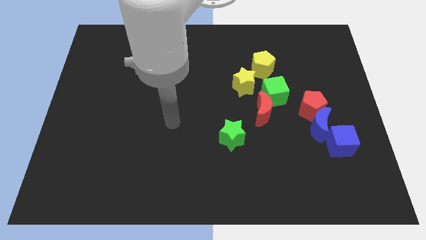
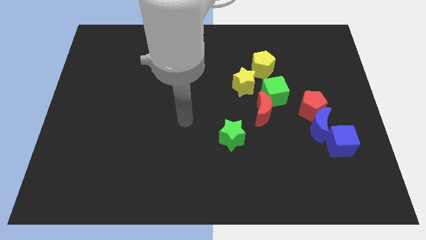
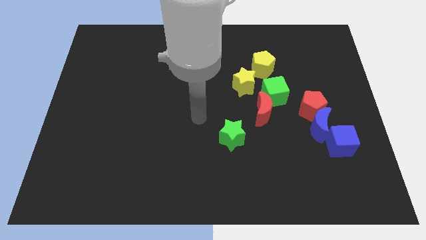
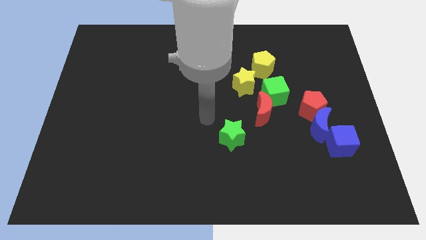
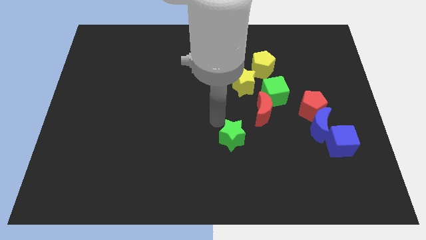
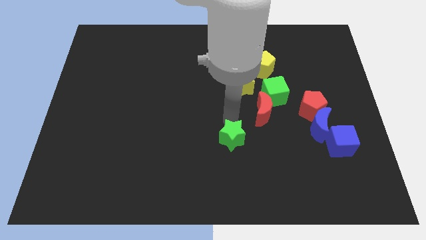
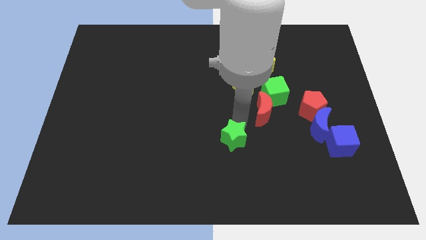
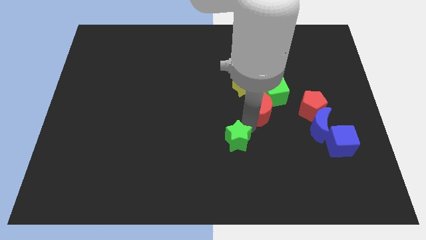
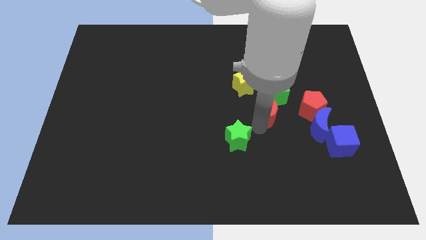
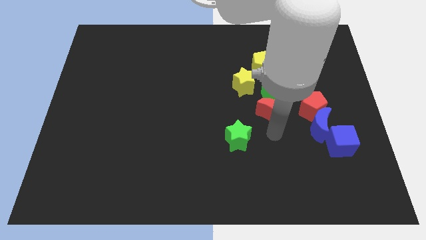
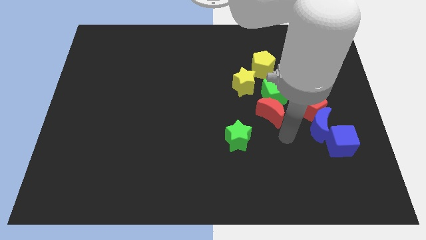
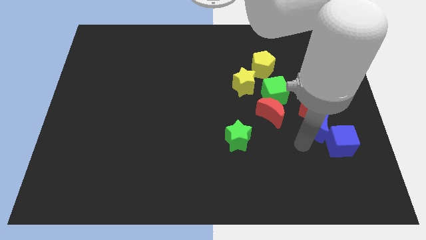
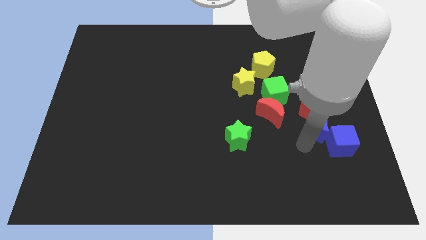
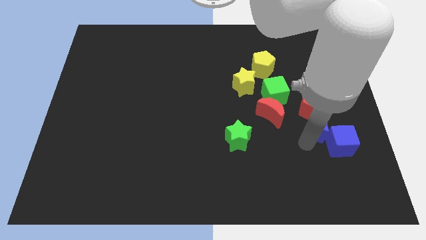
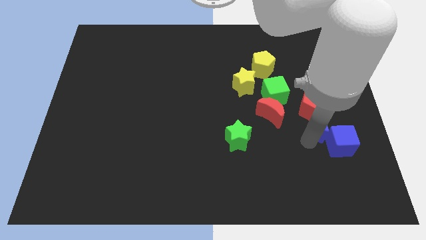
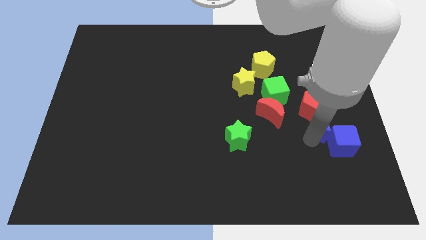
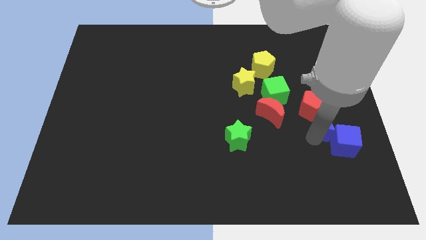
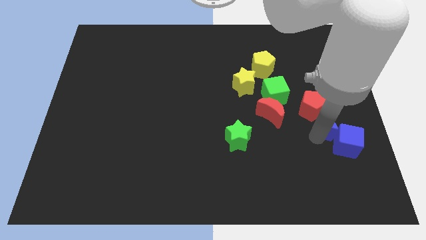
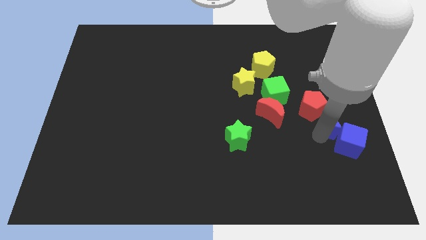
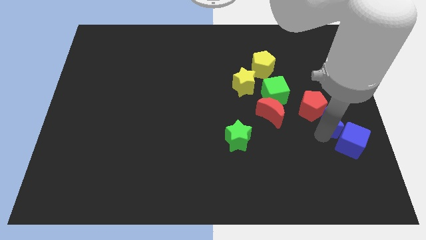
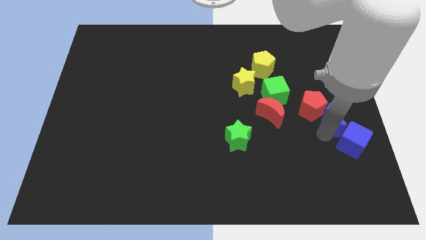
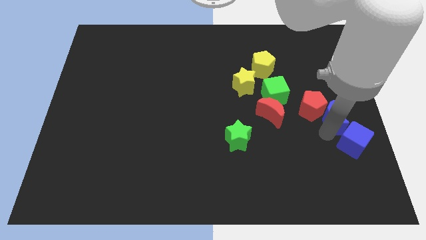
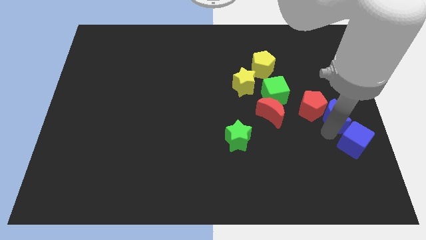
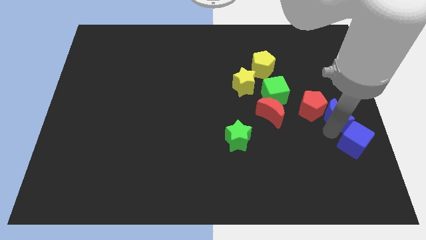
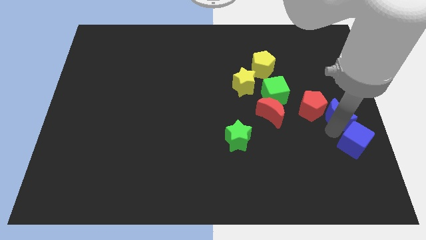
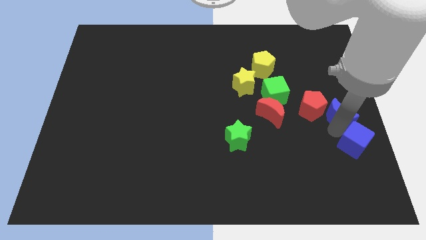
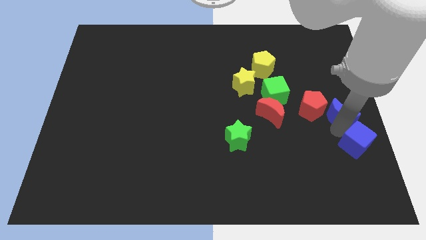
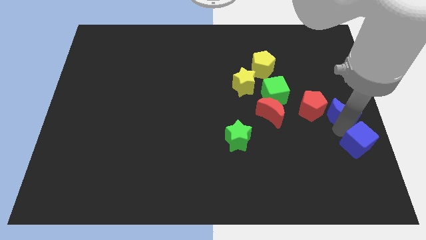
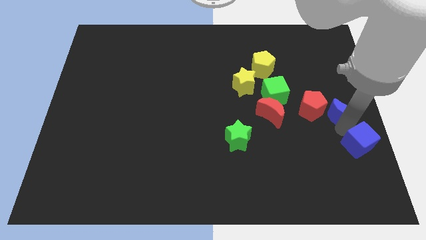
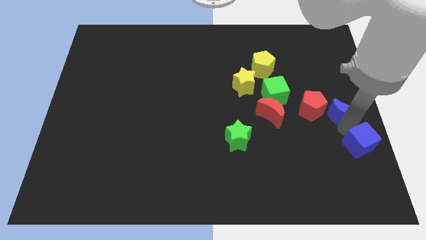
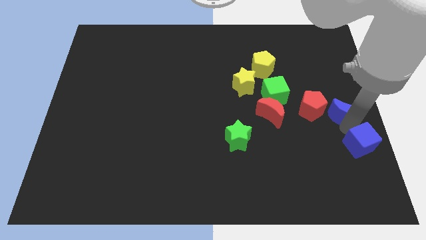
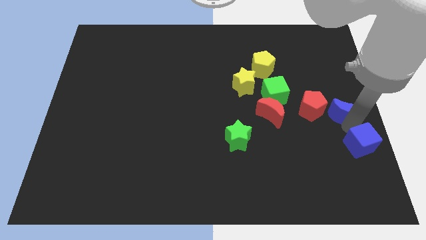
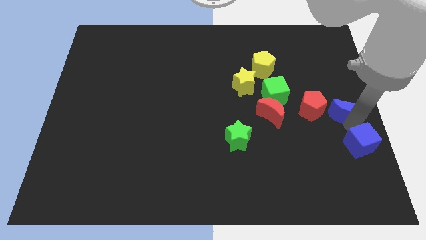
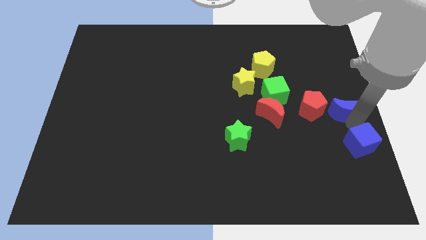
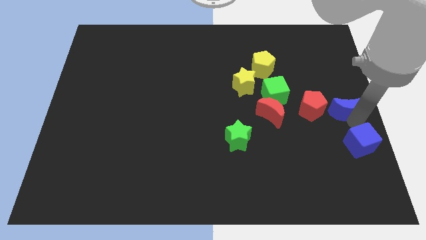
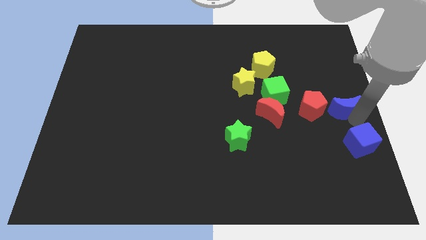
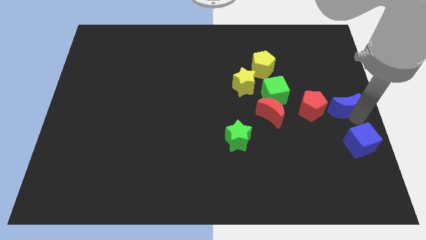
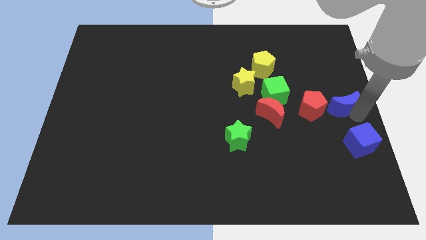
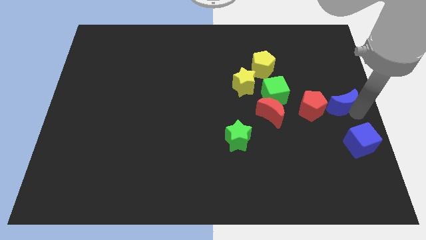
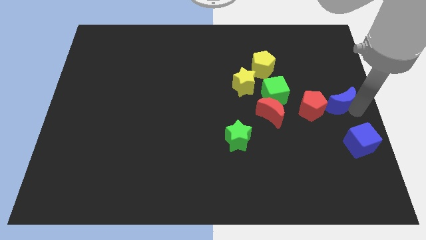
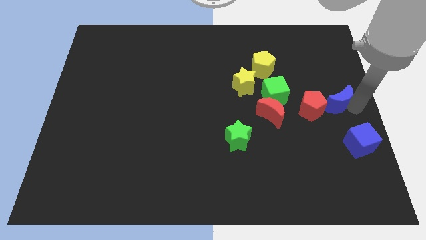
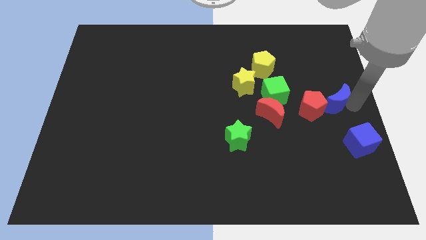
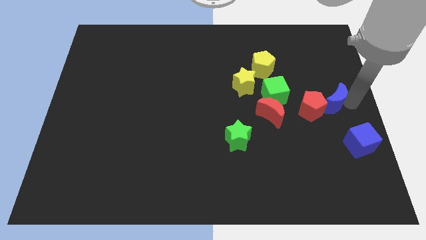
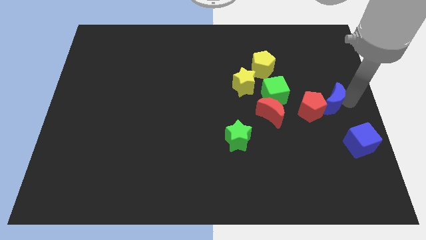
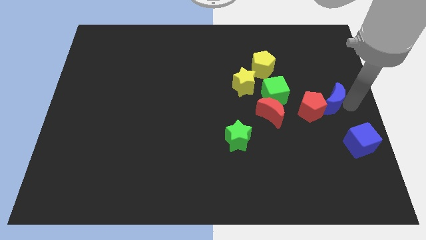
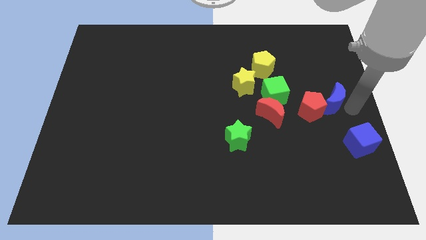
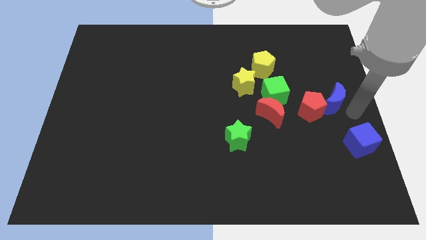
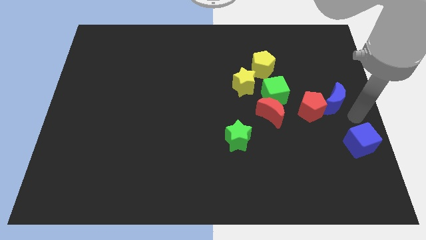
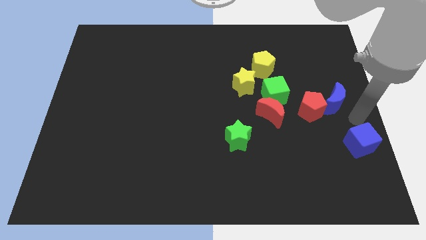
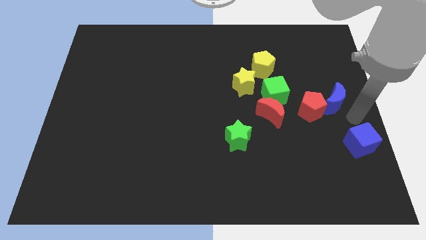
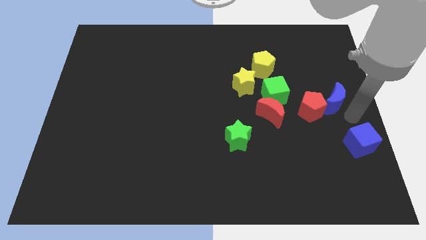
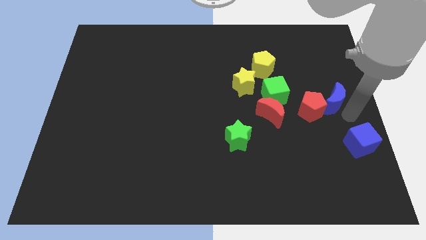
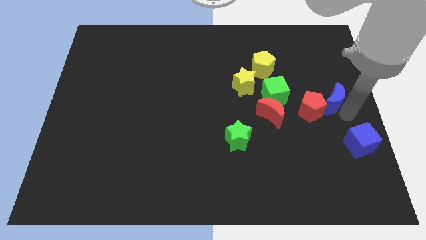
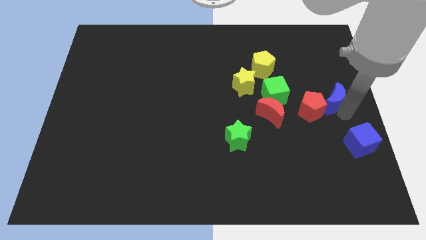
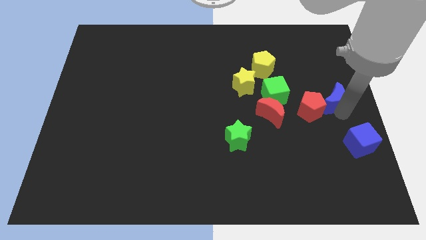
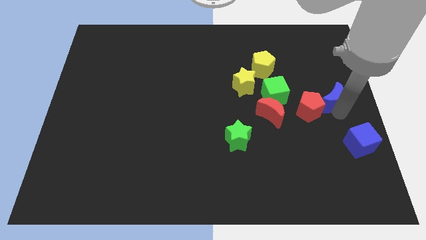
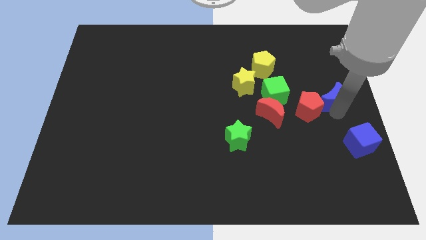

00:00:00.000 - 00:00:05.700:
move the blue moon upwards a bit

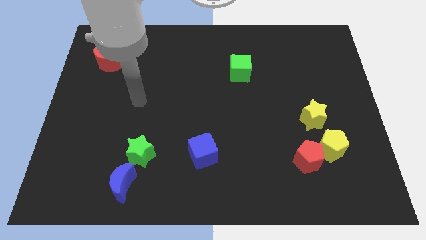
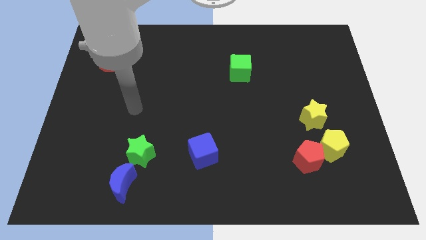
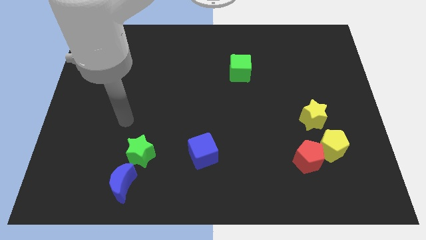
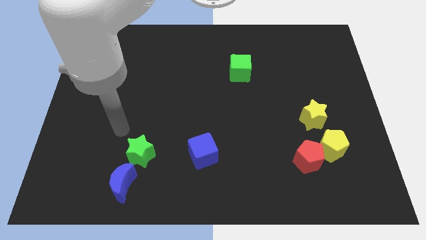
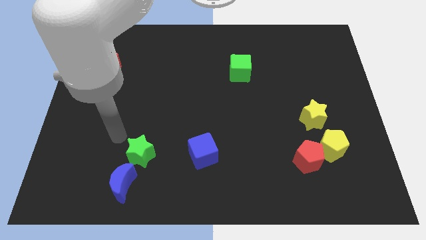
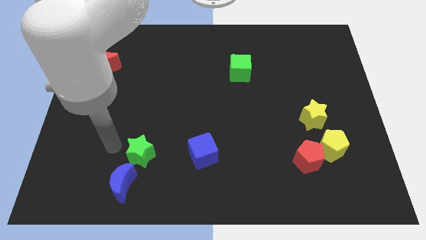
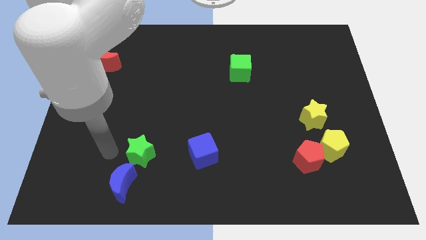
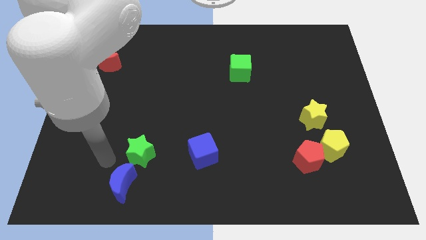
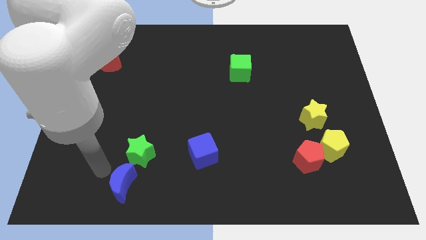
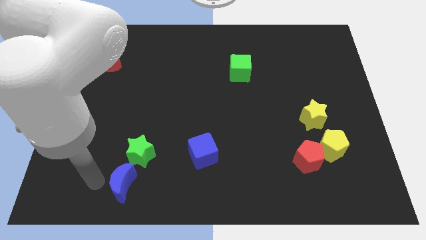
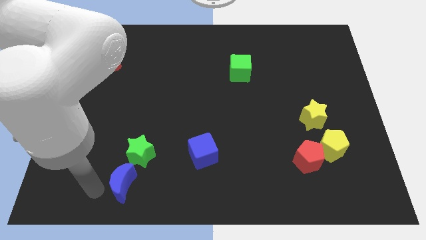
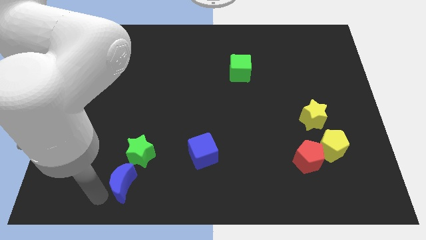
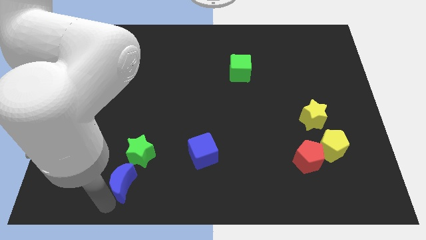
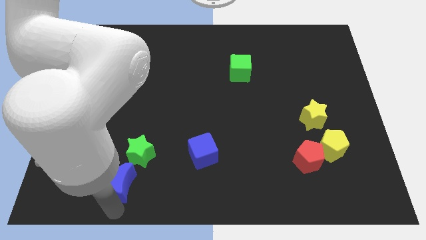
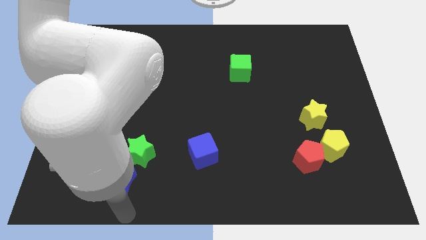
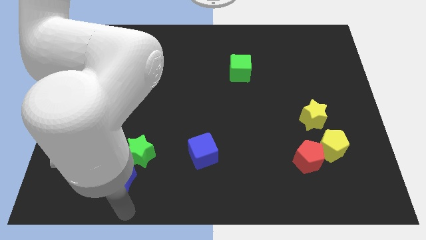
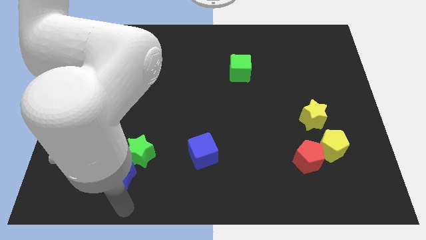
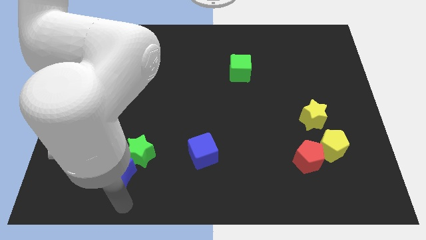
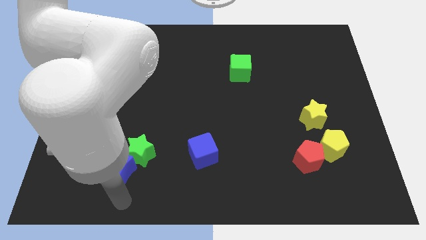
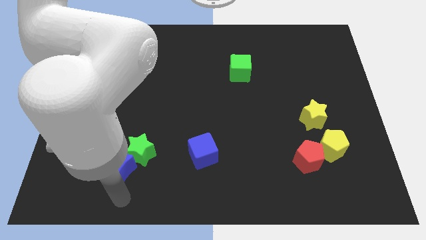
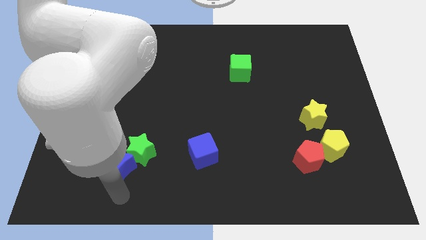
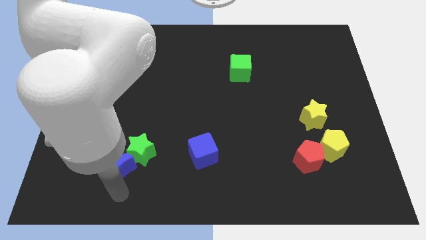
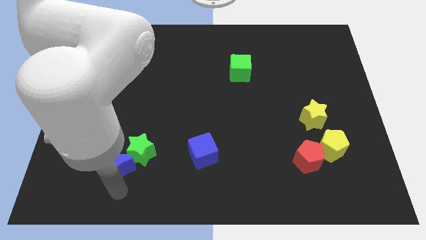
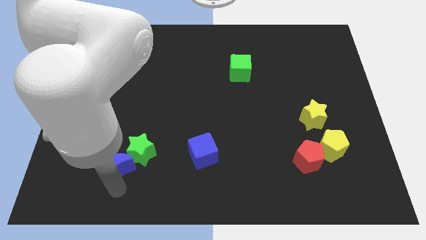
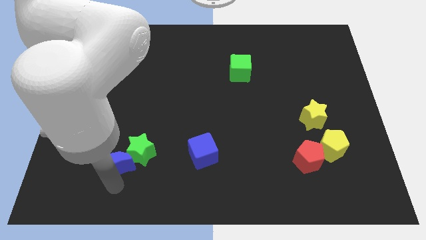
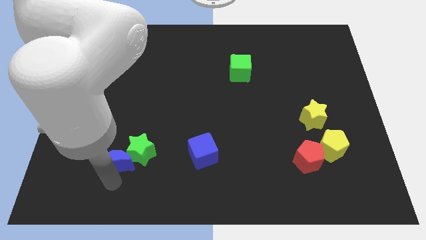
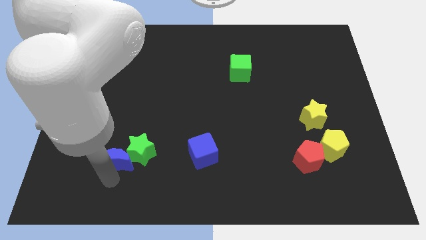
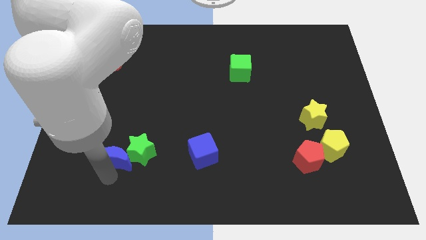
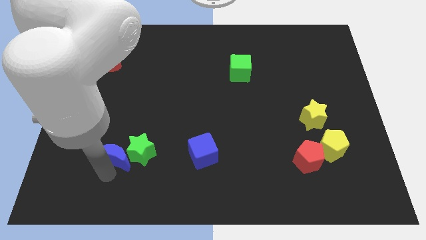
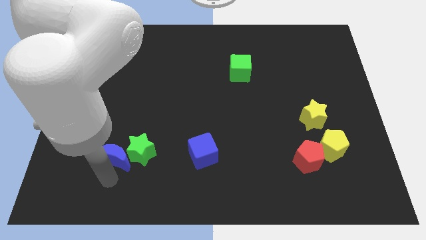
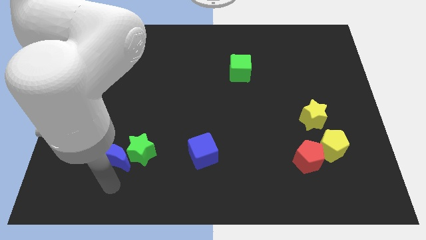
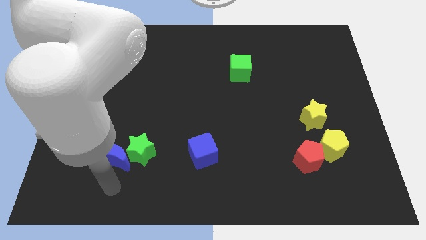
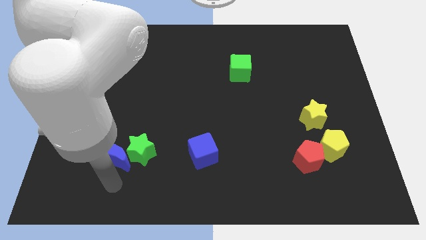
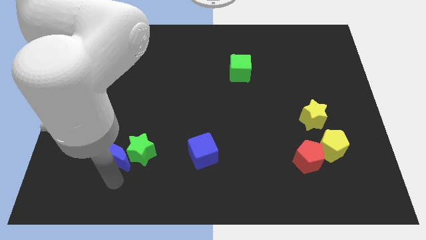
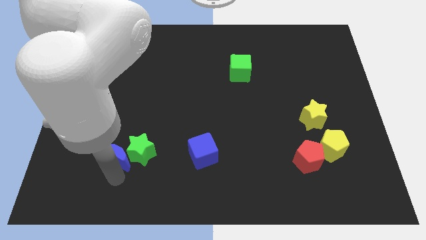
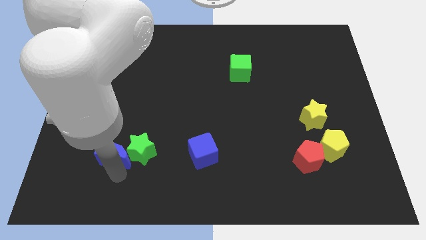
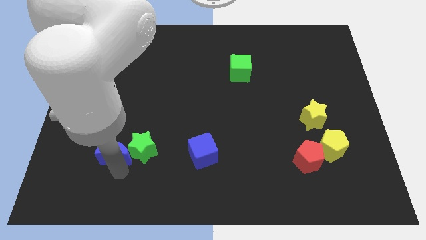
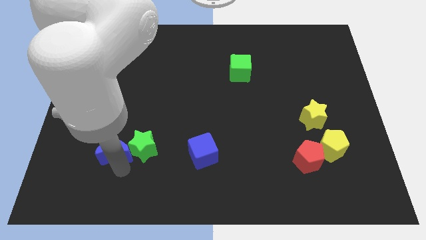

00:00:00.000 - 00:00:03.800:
slightly move the blue moon upwards
